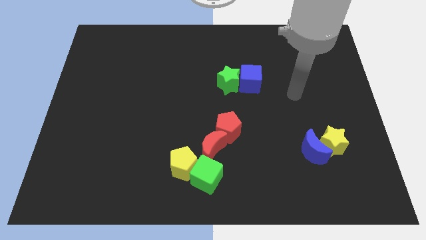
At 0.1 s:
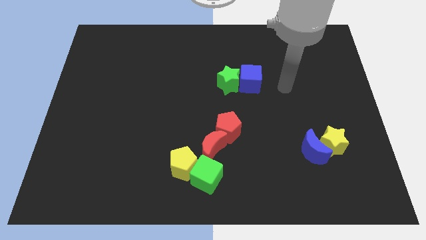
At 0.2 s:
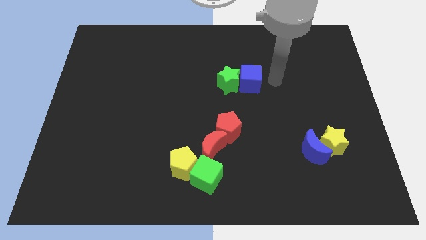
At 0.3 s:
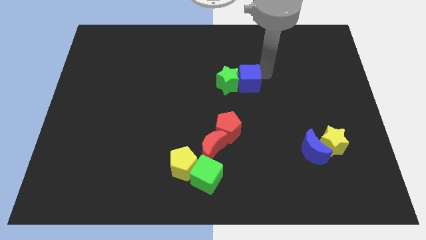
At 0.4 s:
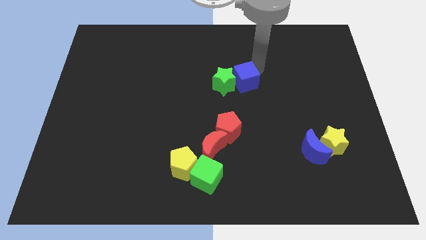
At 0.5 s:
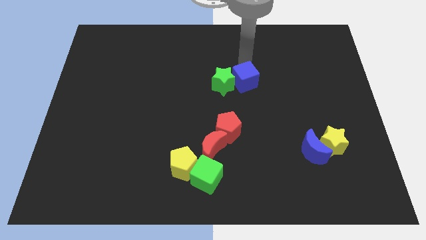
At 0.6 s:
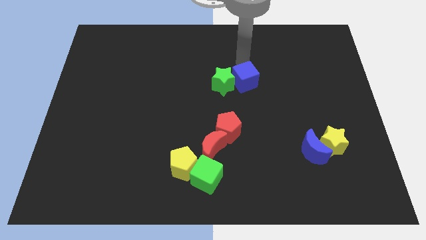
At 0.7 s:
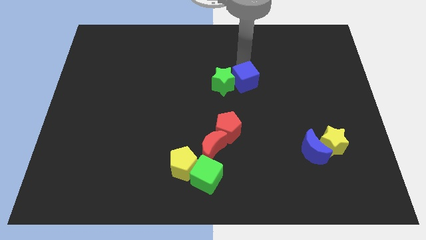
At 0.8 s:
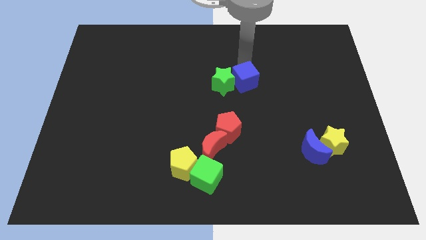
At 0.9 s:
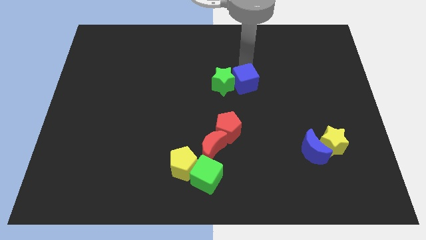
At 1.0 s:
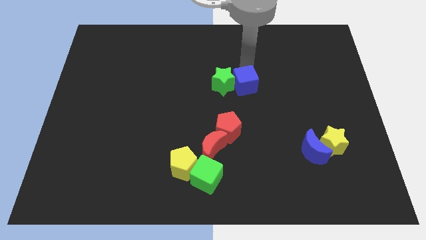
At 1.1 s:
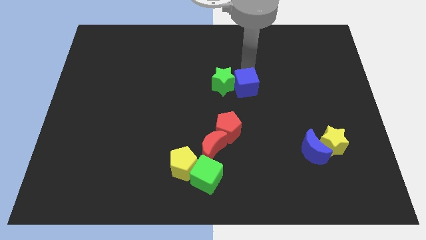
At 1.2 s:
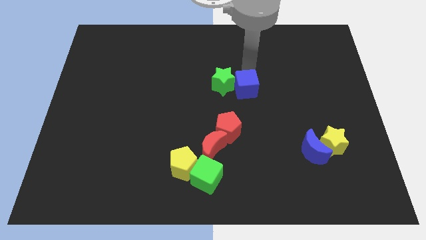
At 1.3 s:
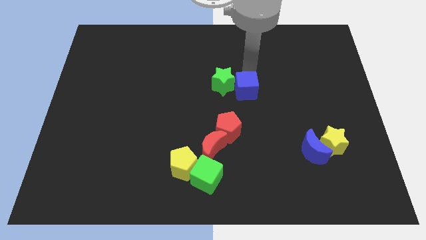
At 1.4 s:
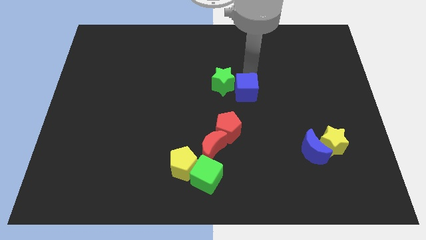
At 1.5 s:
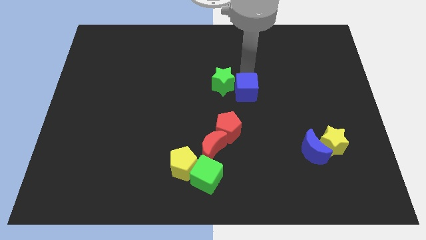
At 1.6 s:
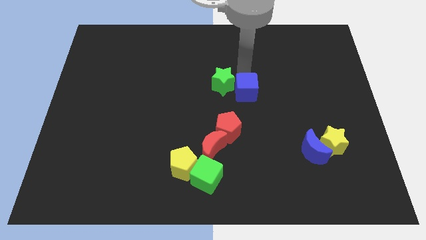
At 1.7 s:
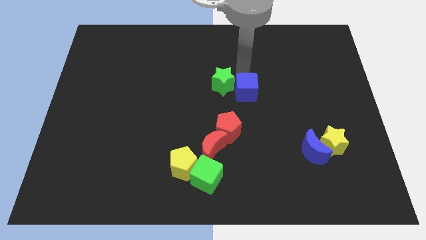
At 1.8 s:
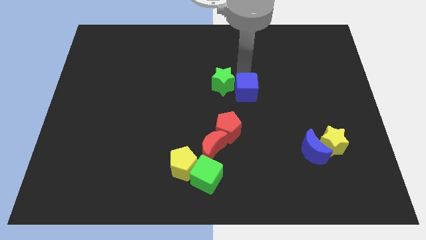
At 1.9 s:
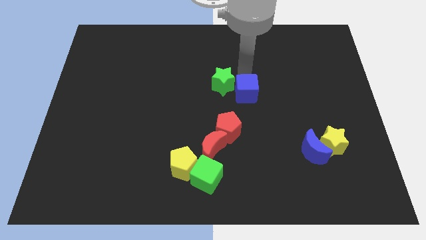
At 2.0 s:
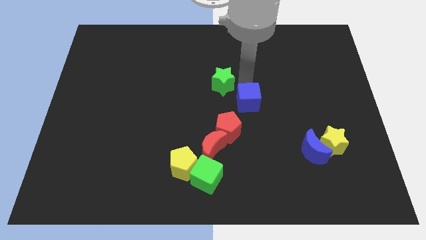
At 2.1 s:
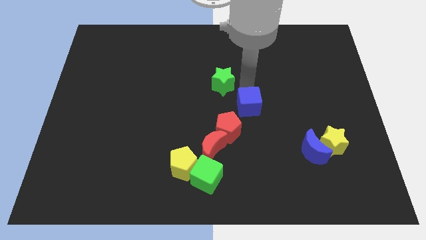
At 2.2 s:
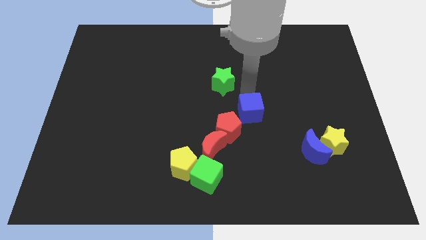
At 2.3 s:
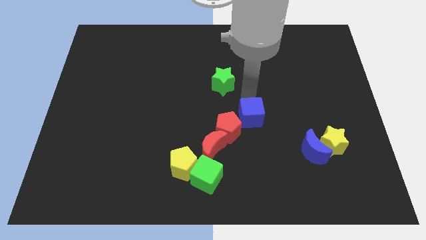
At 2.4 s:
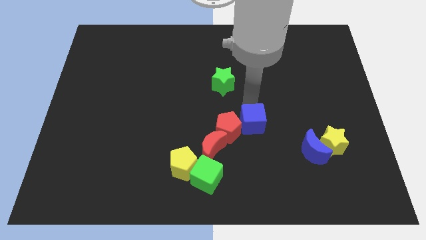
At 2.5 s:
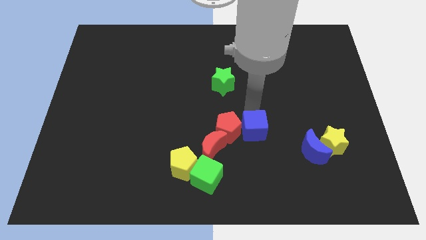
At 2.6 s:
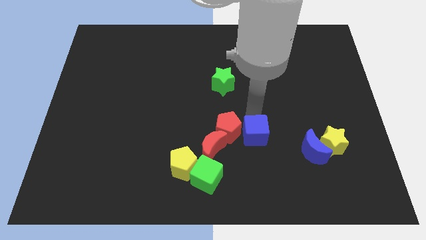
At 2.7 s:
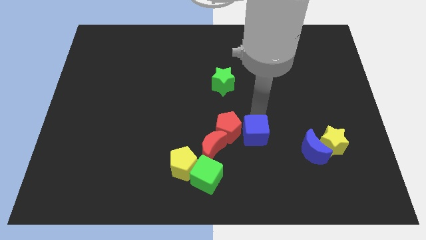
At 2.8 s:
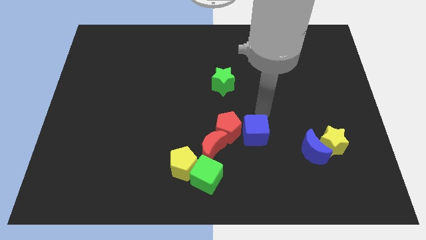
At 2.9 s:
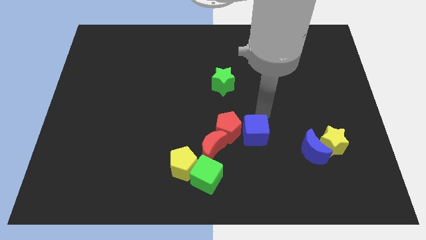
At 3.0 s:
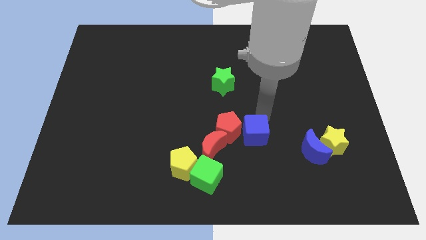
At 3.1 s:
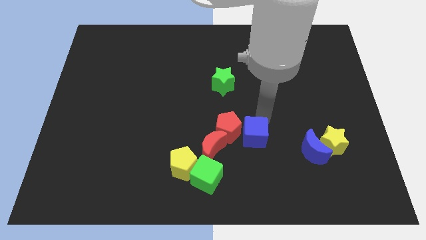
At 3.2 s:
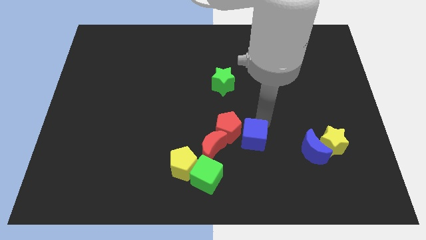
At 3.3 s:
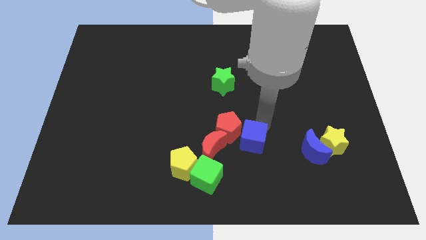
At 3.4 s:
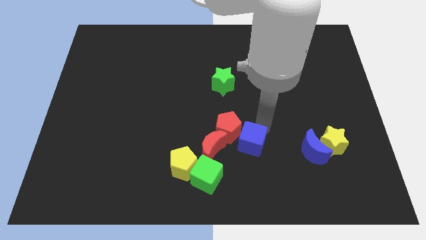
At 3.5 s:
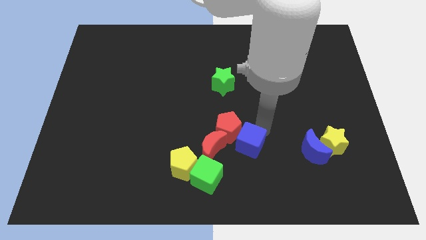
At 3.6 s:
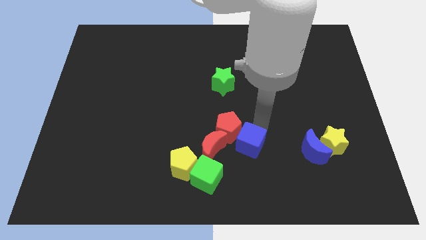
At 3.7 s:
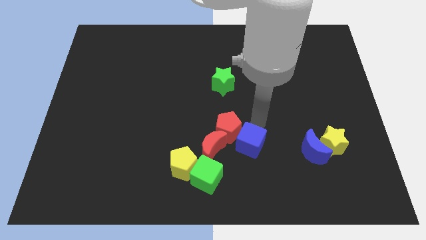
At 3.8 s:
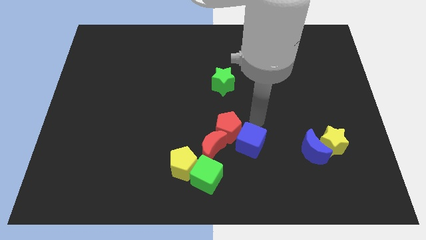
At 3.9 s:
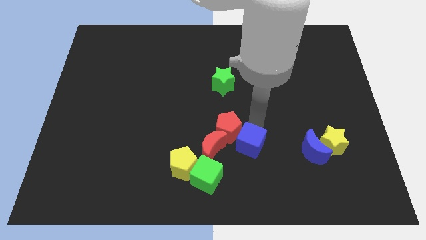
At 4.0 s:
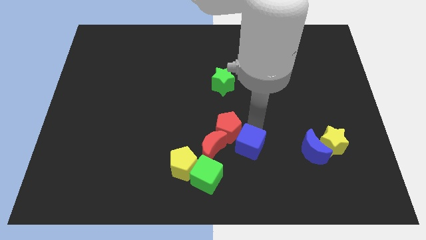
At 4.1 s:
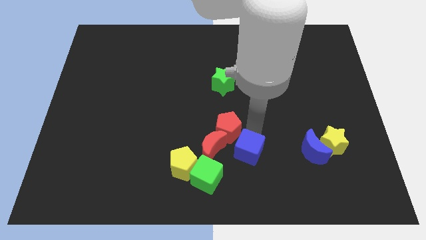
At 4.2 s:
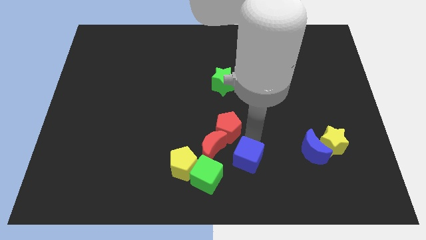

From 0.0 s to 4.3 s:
push the blue cube diagonally down and to the right of the red moon

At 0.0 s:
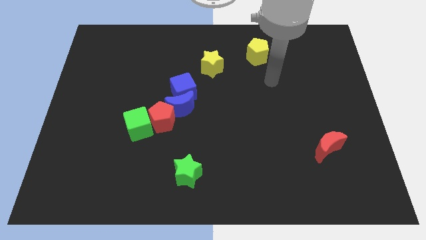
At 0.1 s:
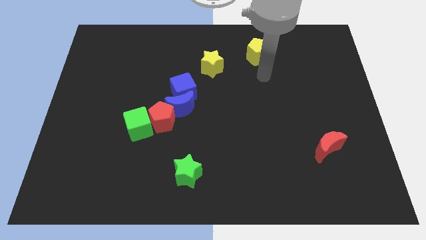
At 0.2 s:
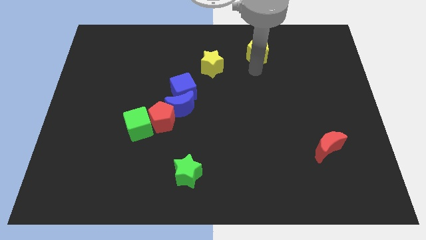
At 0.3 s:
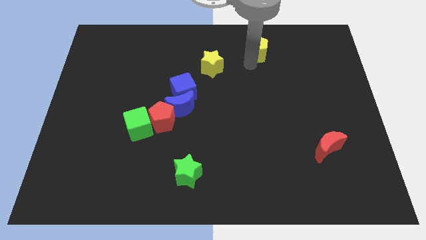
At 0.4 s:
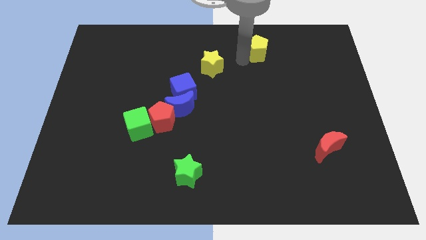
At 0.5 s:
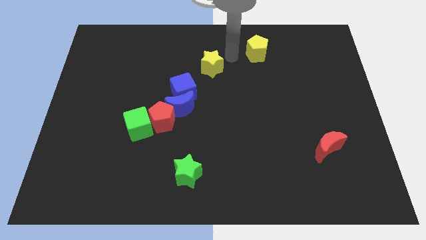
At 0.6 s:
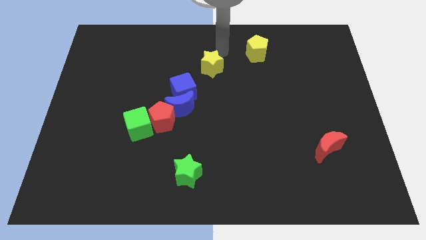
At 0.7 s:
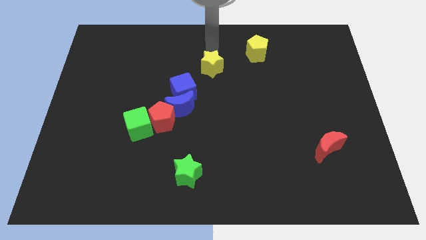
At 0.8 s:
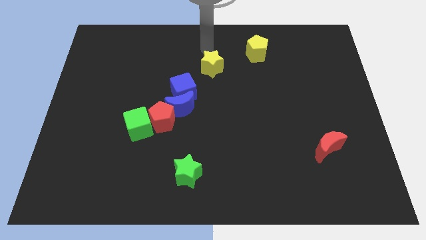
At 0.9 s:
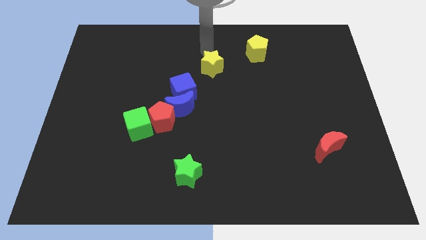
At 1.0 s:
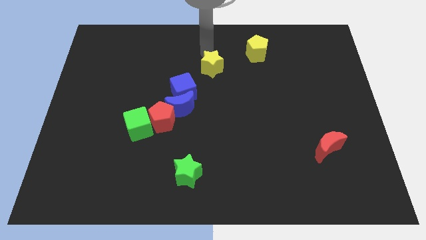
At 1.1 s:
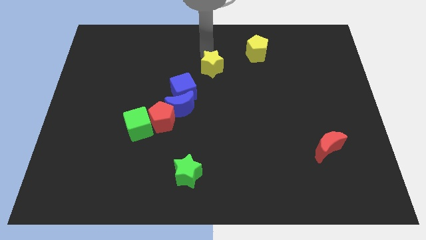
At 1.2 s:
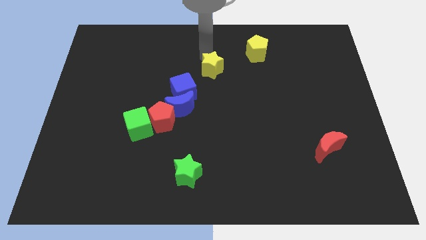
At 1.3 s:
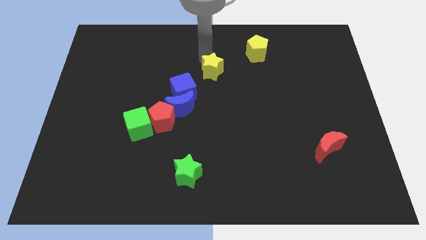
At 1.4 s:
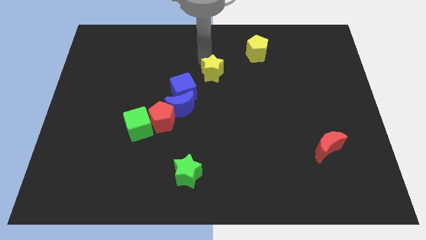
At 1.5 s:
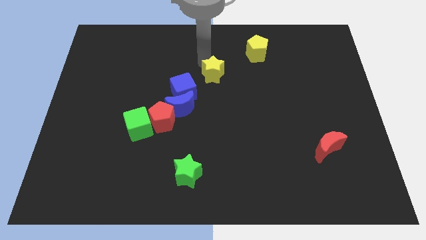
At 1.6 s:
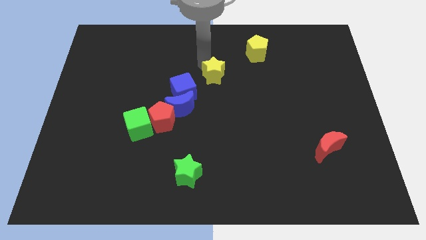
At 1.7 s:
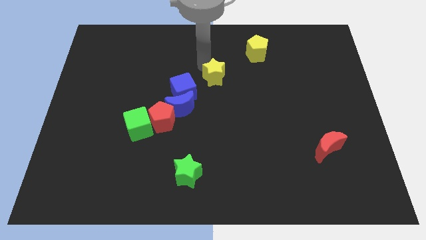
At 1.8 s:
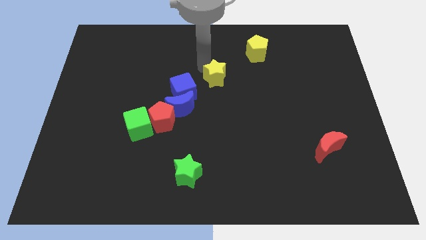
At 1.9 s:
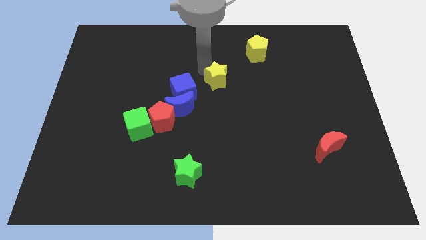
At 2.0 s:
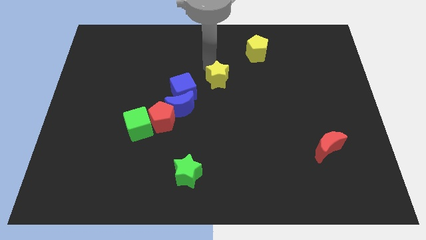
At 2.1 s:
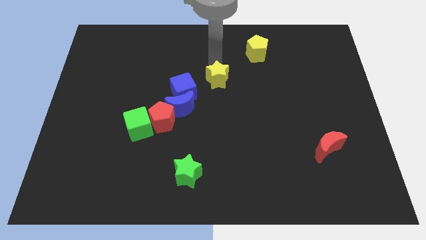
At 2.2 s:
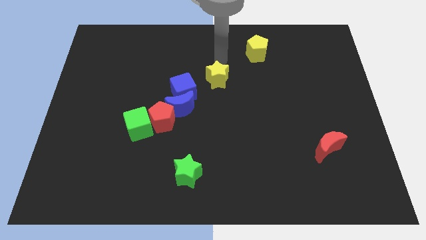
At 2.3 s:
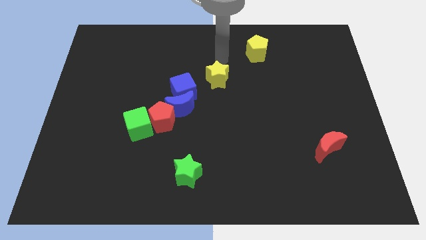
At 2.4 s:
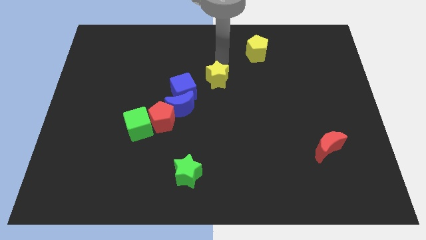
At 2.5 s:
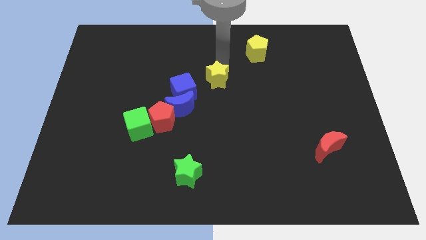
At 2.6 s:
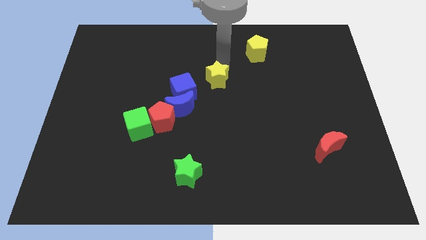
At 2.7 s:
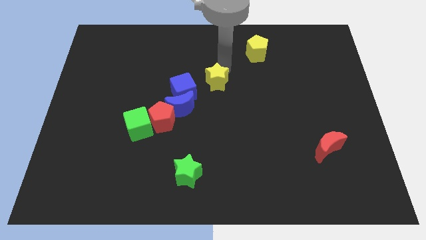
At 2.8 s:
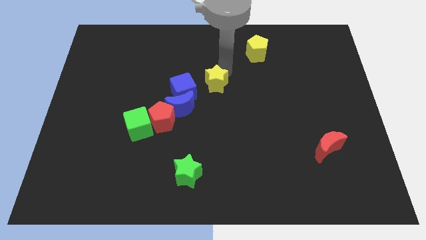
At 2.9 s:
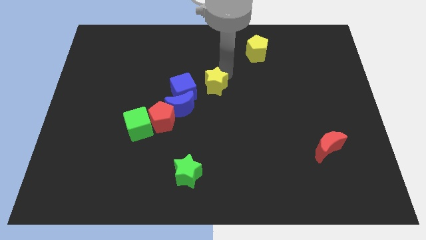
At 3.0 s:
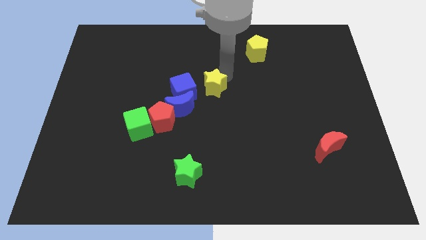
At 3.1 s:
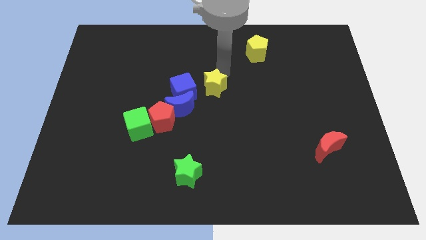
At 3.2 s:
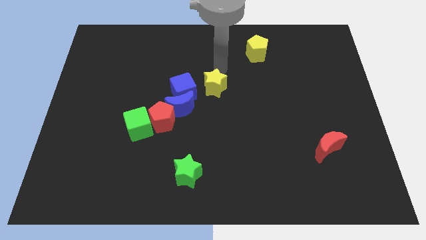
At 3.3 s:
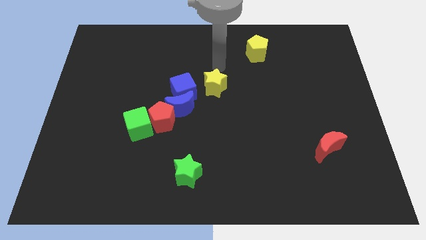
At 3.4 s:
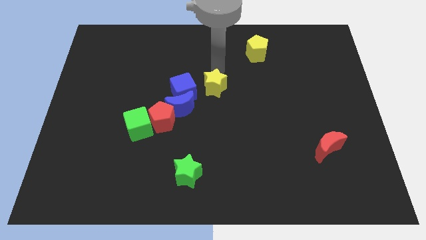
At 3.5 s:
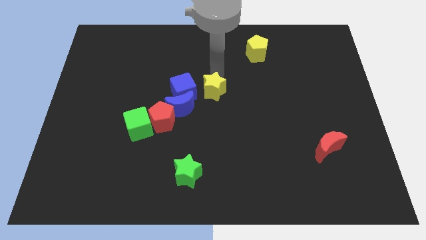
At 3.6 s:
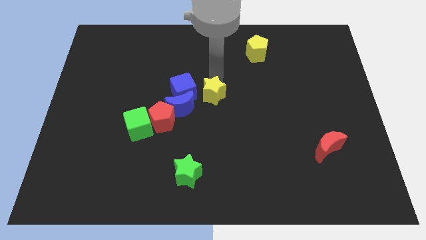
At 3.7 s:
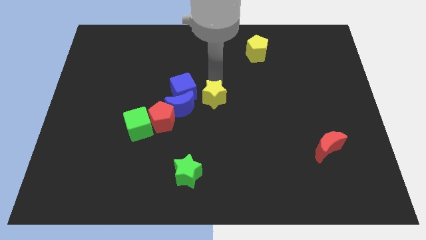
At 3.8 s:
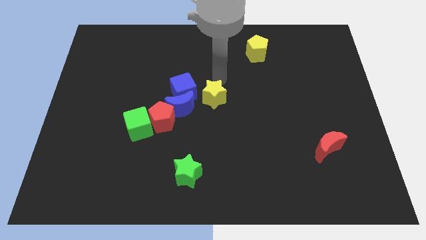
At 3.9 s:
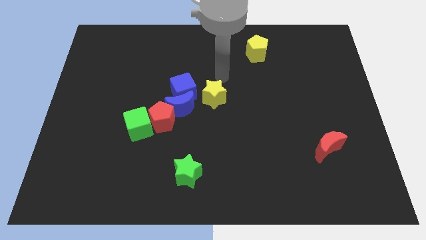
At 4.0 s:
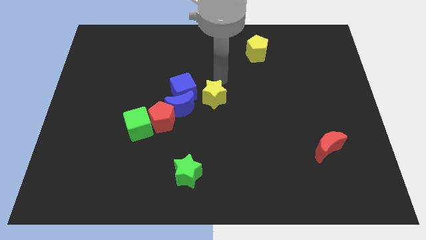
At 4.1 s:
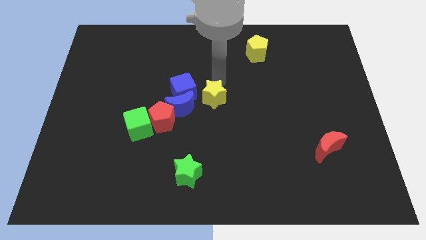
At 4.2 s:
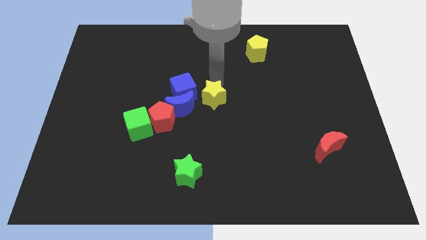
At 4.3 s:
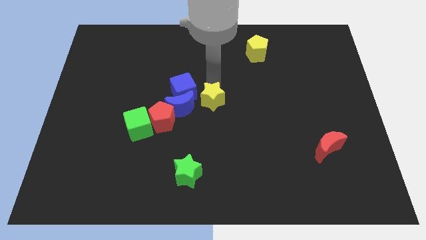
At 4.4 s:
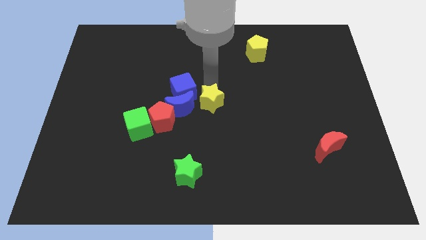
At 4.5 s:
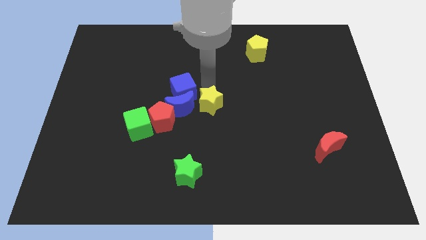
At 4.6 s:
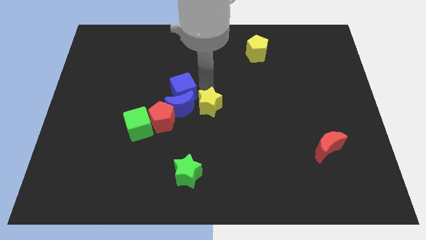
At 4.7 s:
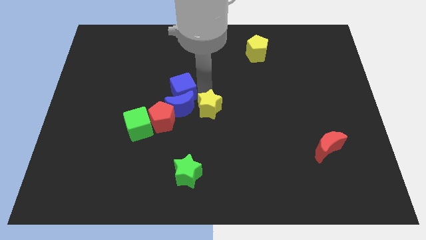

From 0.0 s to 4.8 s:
push the yellow star to the bottom right of the blue moon
